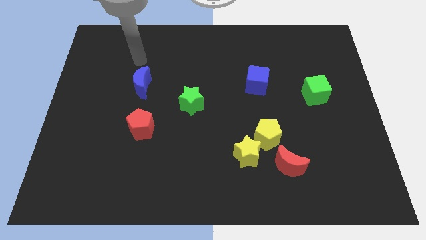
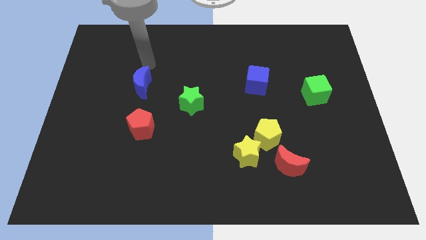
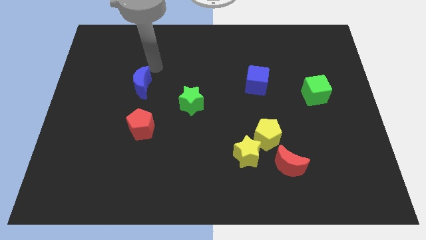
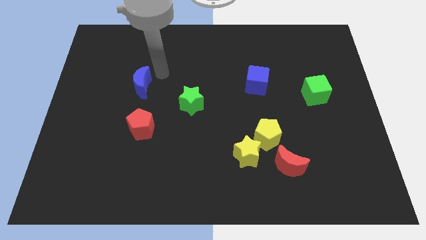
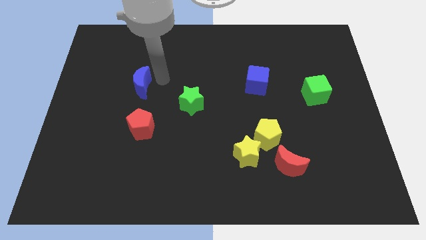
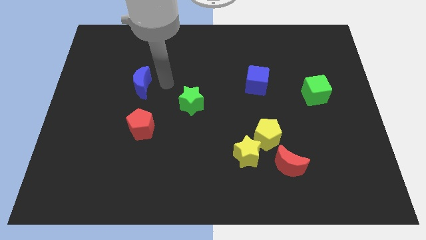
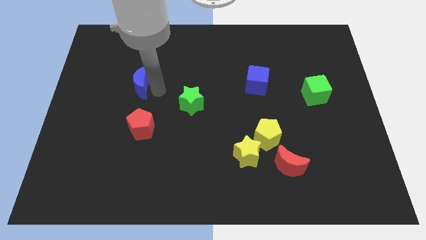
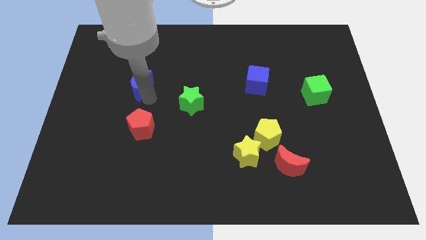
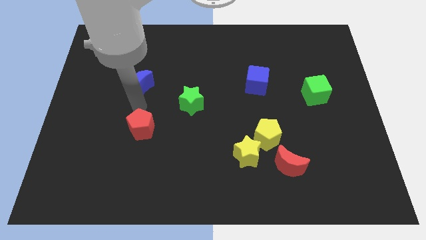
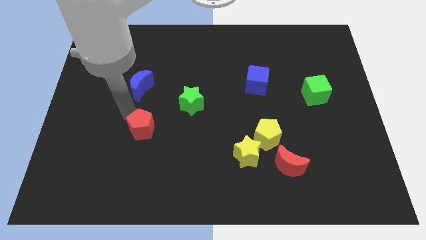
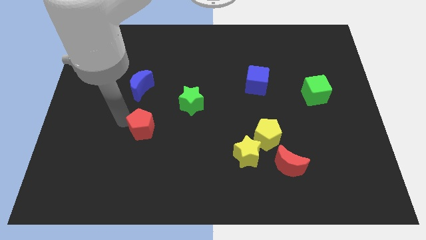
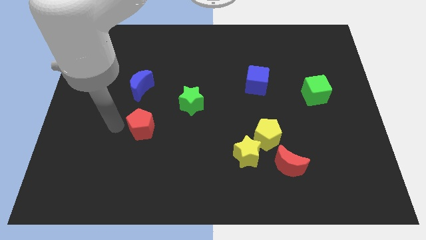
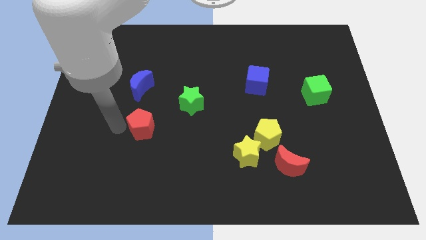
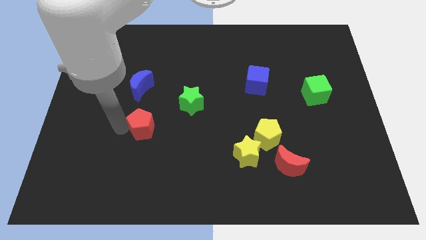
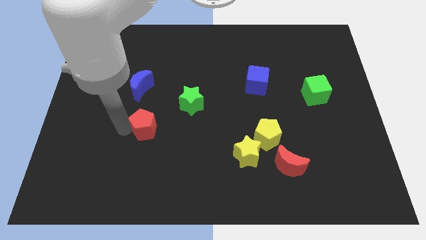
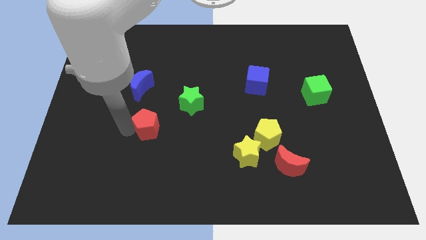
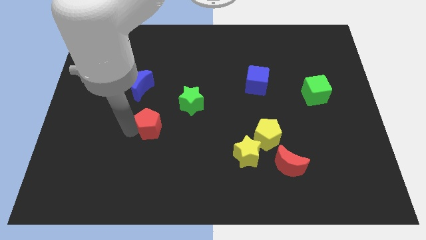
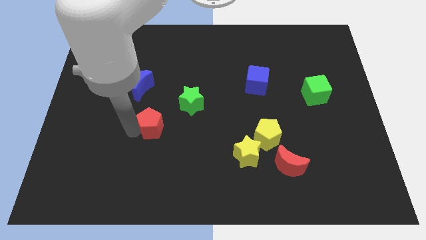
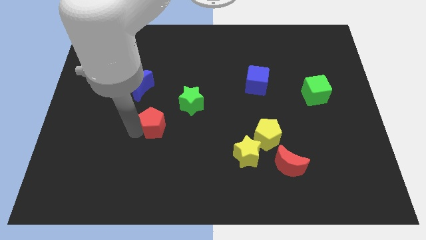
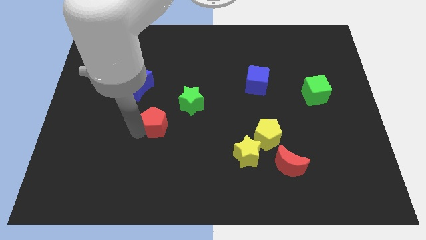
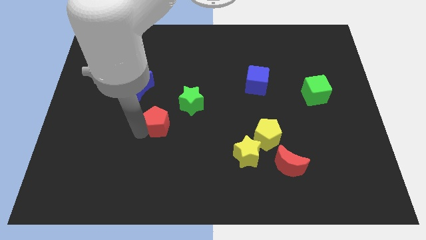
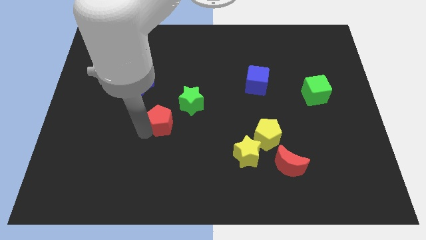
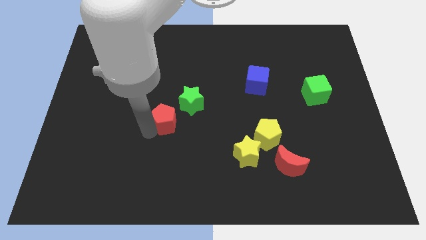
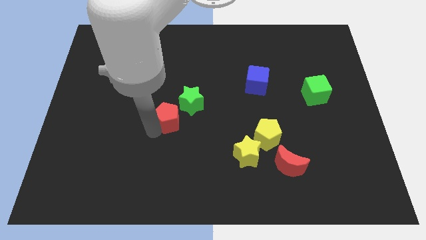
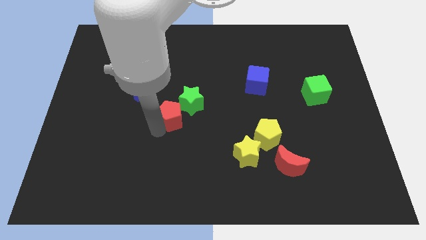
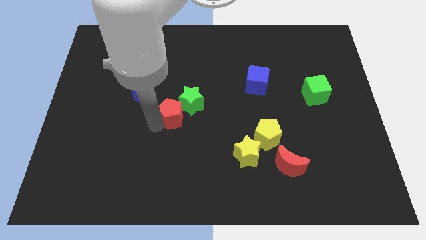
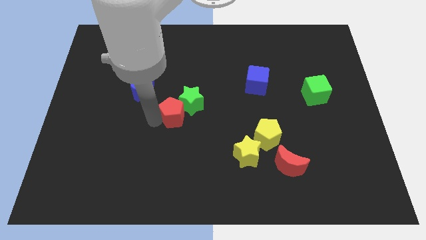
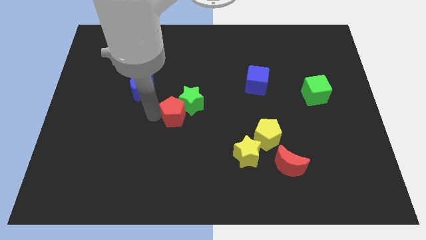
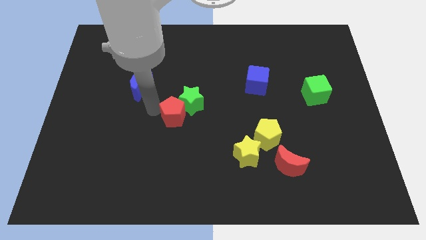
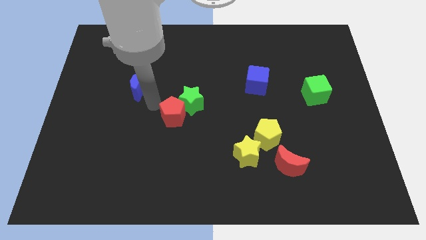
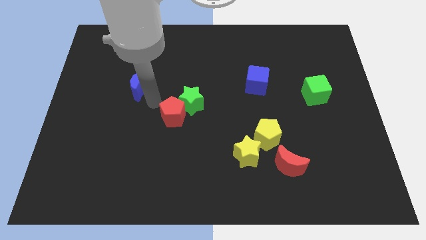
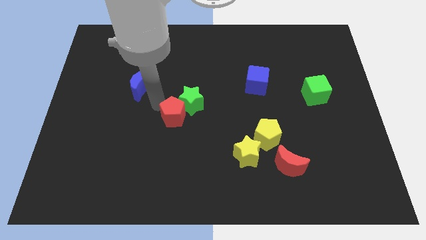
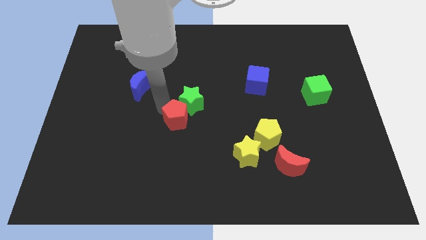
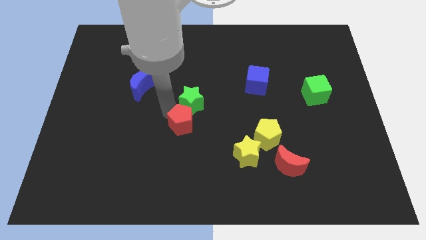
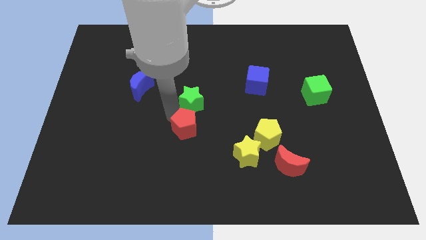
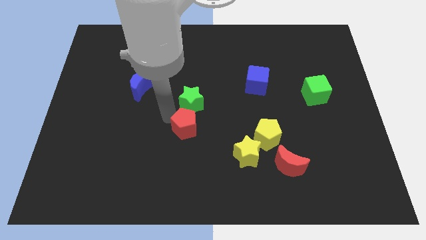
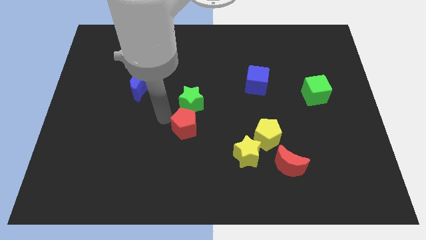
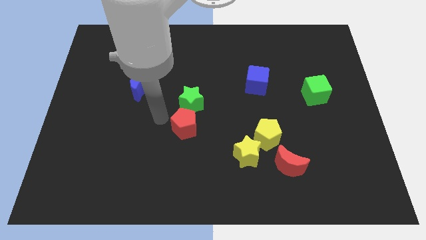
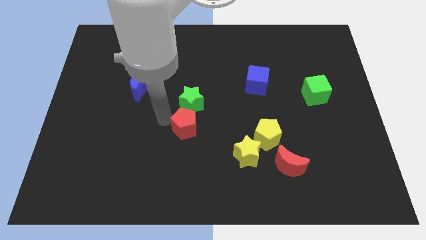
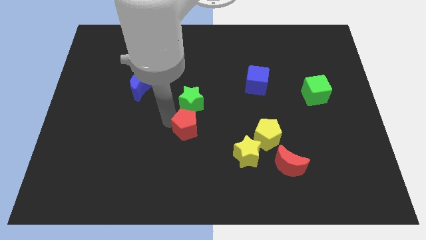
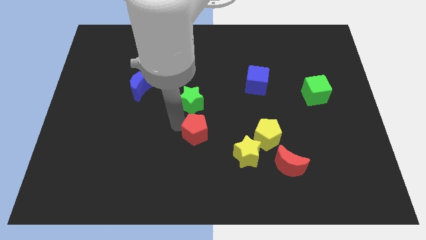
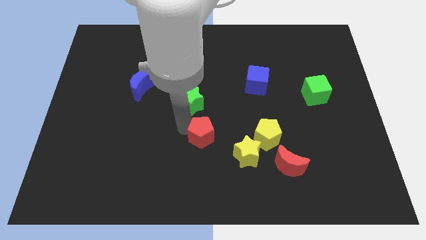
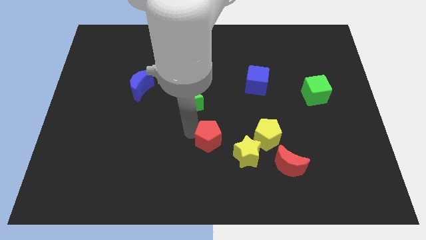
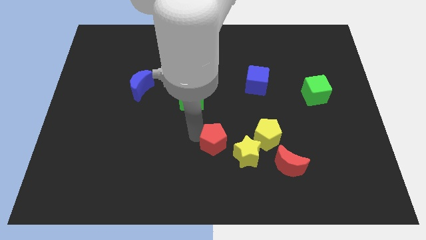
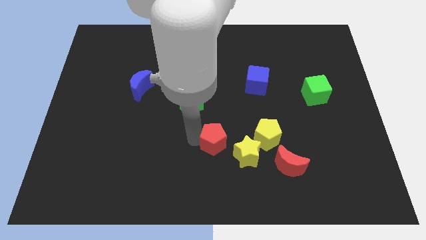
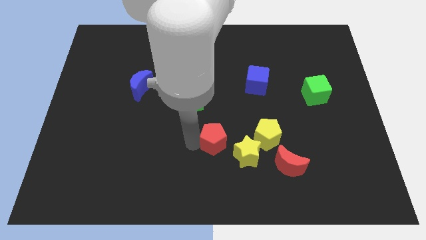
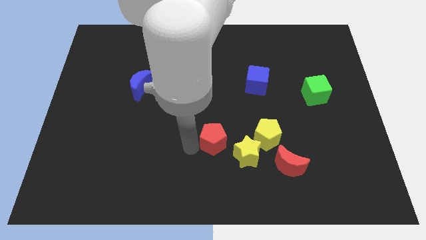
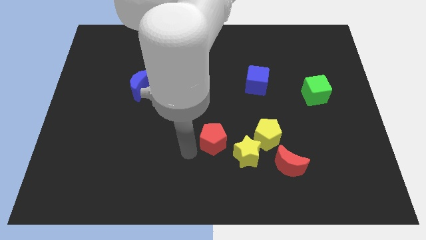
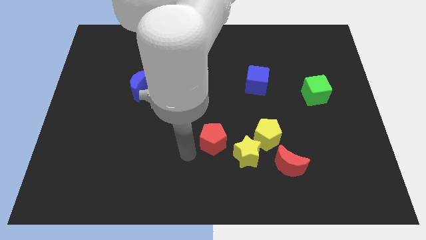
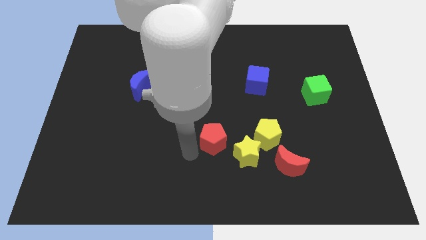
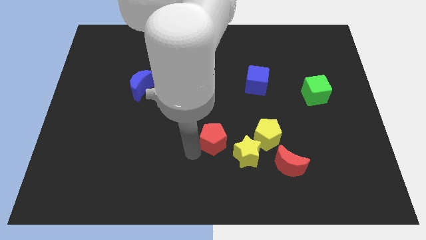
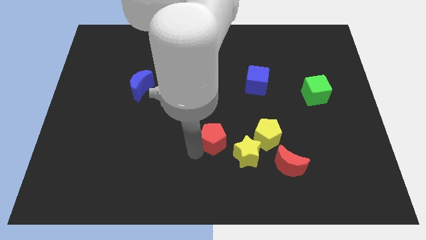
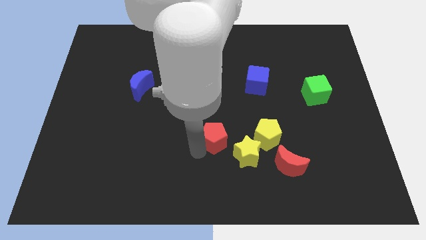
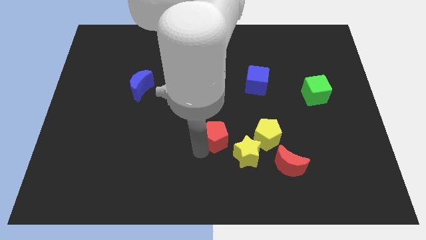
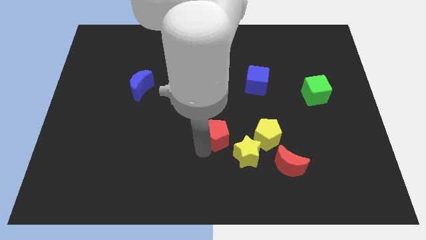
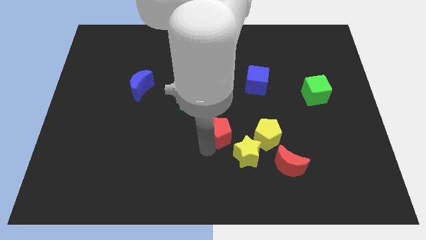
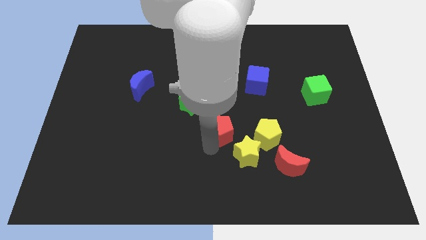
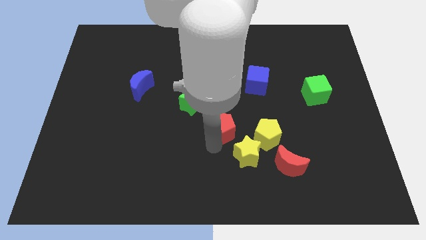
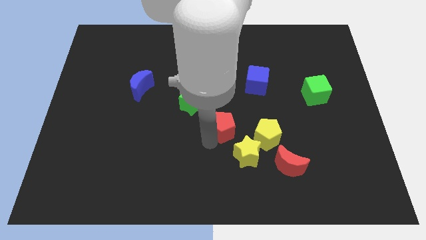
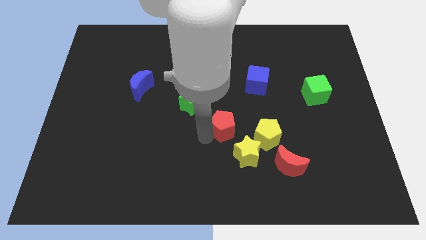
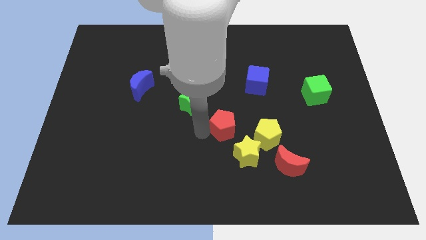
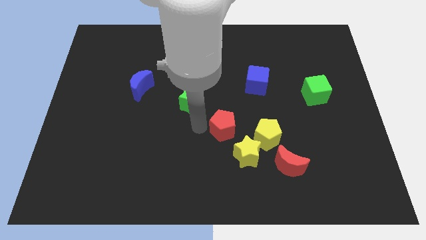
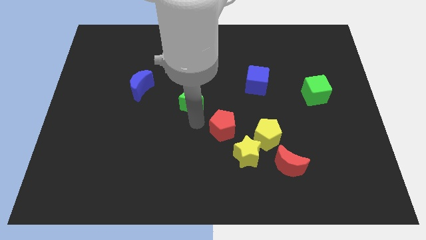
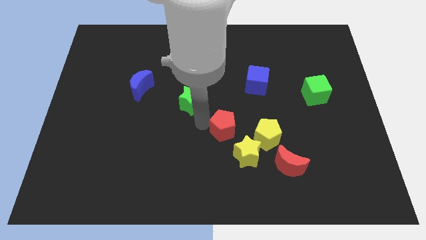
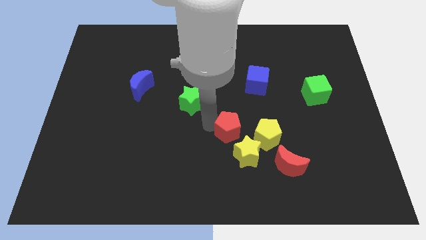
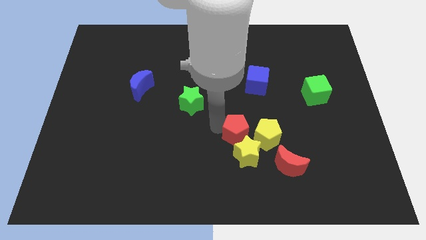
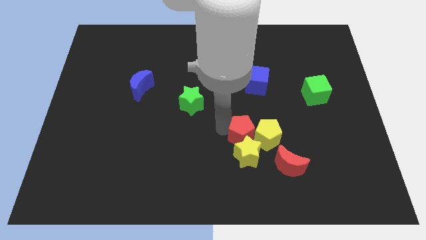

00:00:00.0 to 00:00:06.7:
push the red pentagon towards the yellow pentagon

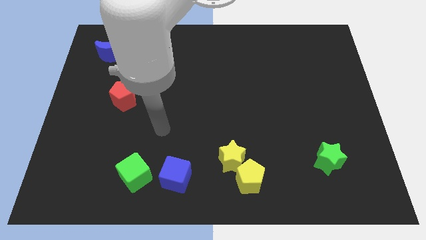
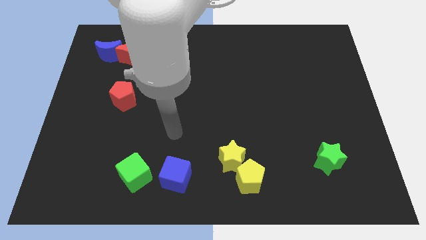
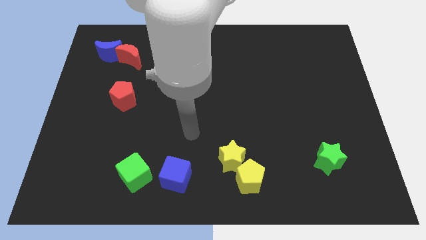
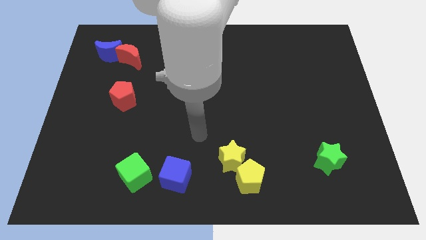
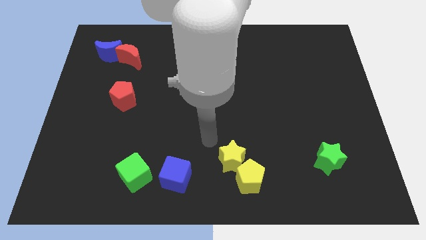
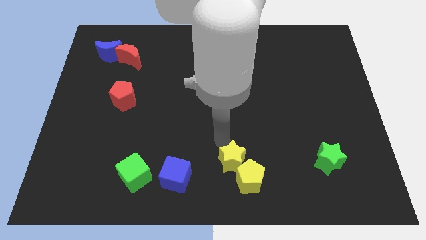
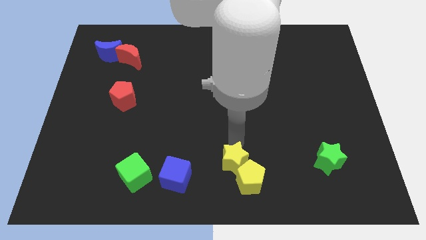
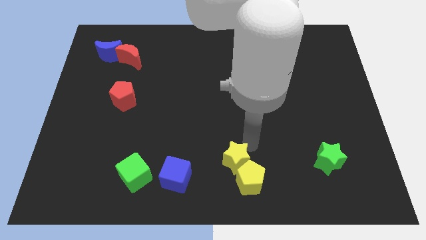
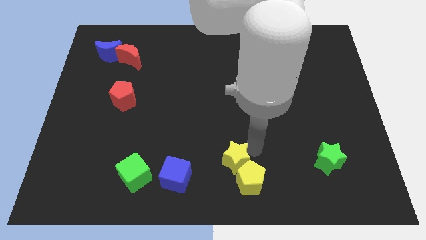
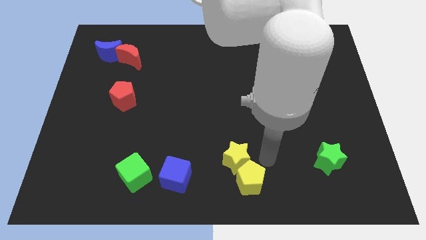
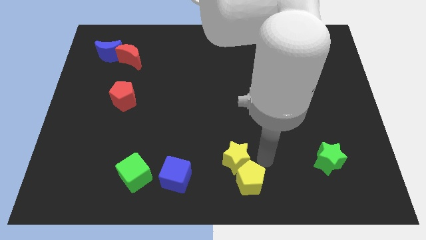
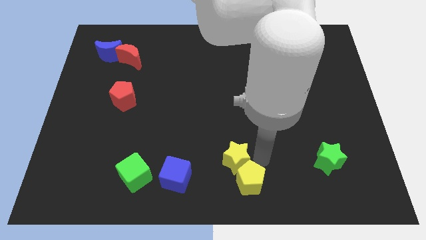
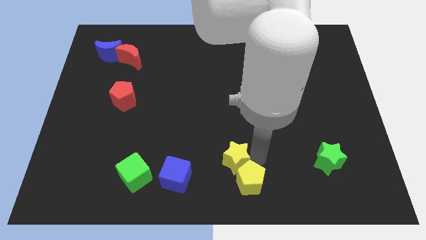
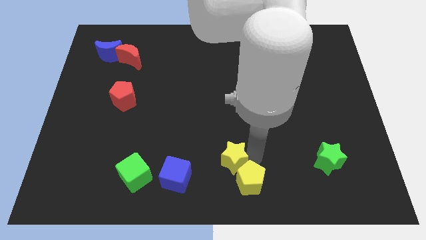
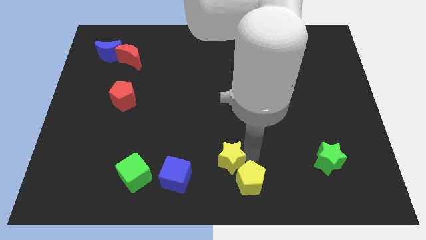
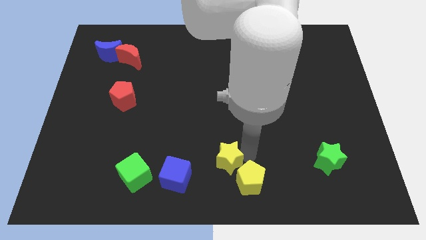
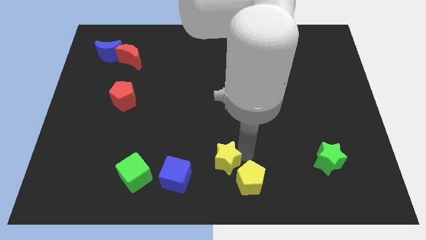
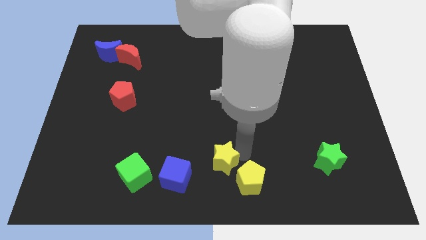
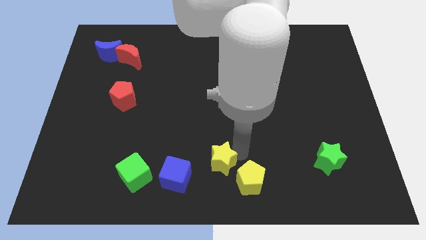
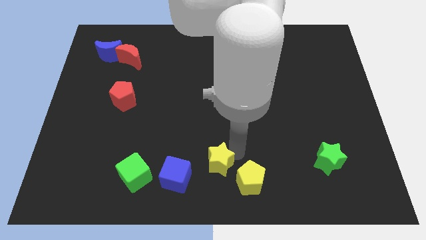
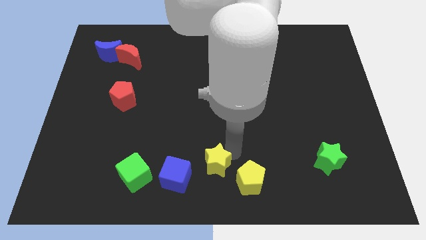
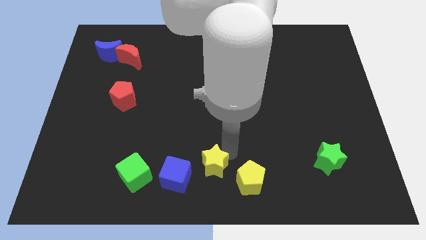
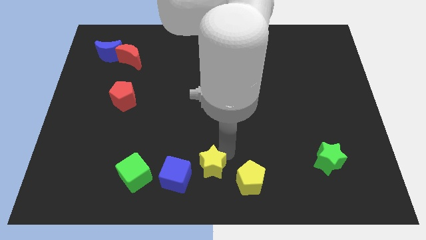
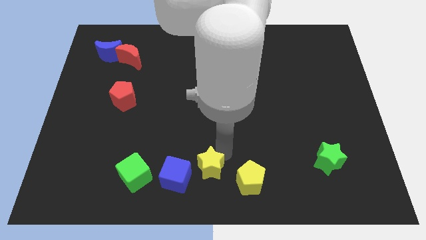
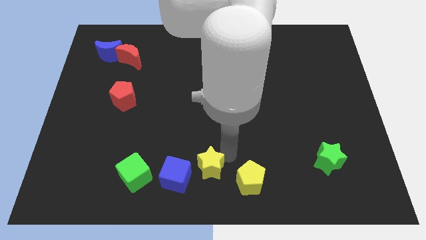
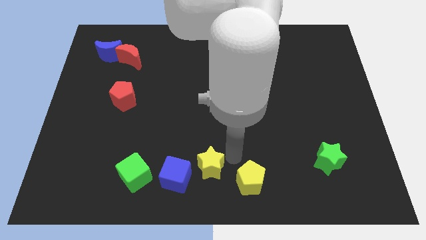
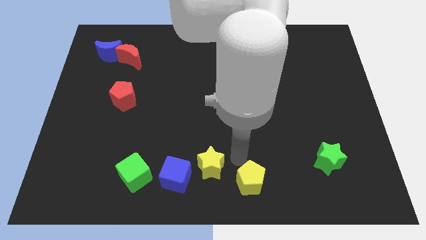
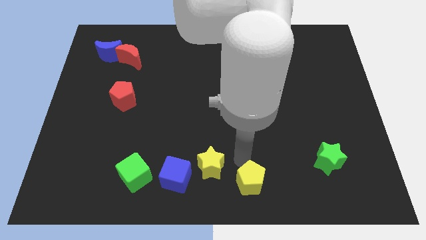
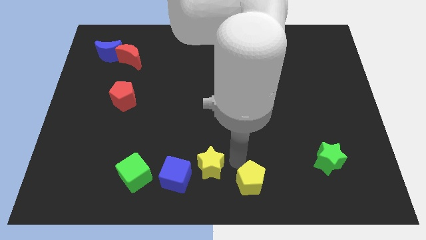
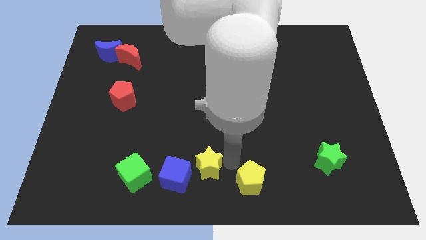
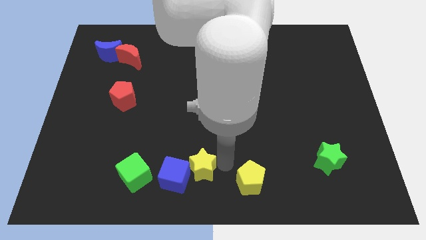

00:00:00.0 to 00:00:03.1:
push the yellow star close to the blue cube
